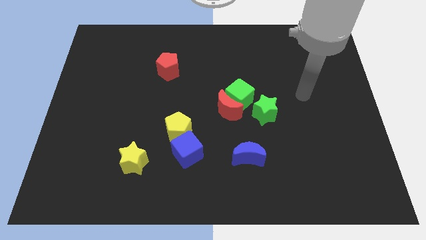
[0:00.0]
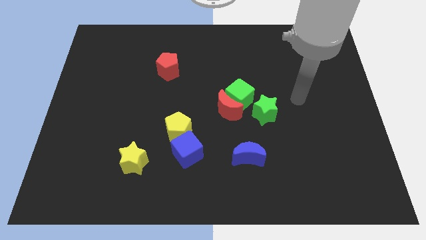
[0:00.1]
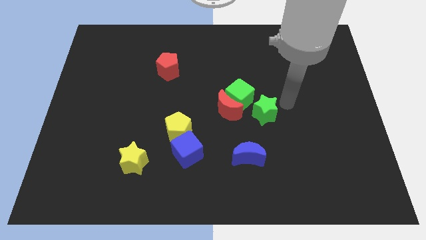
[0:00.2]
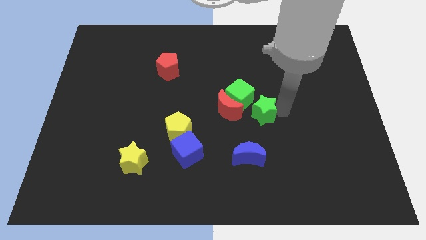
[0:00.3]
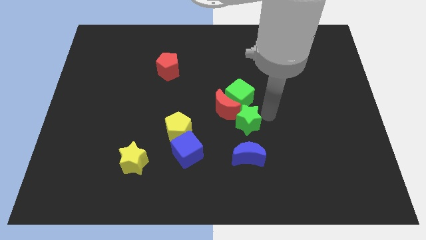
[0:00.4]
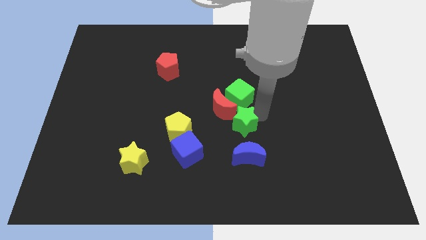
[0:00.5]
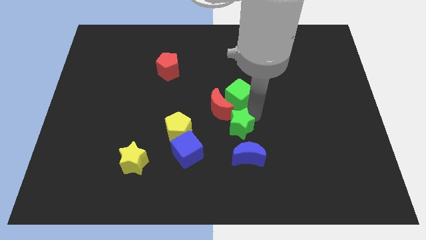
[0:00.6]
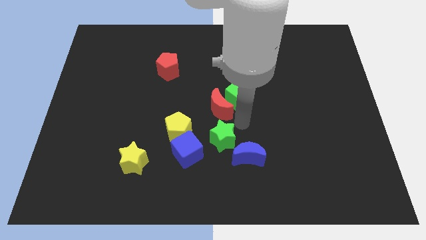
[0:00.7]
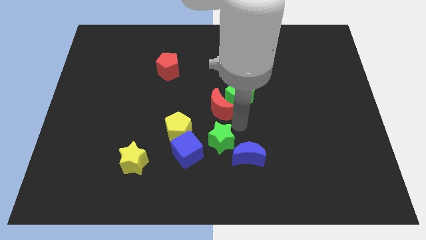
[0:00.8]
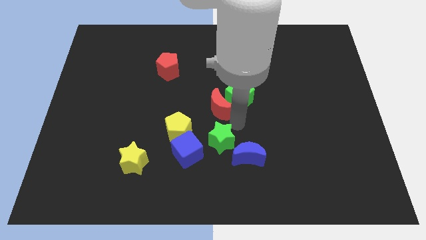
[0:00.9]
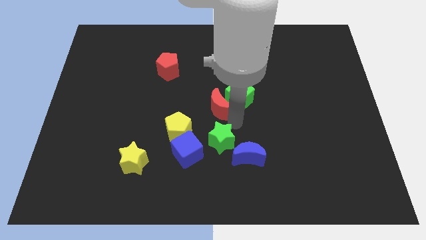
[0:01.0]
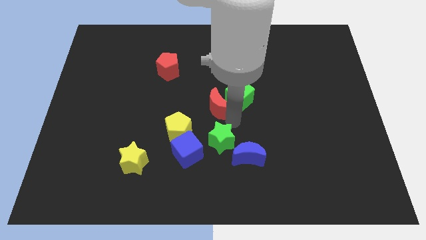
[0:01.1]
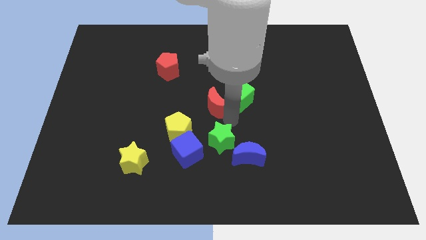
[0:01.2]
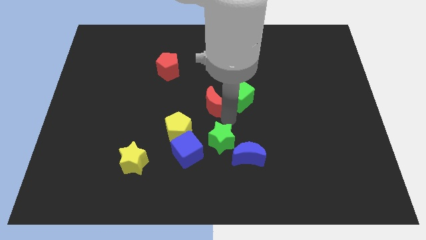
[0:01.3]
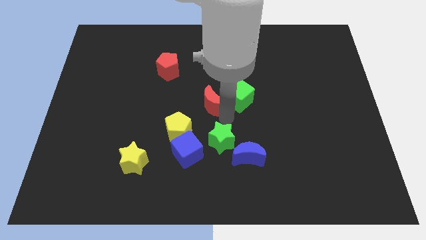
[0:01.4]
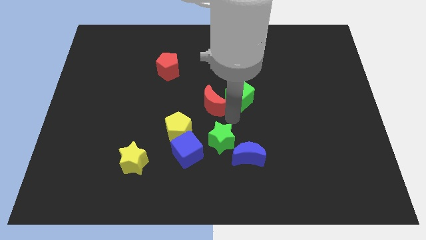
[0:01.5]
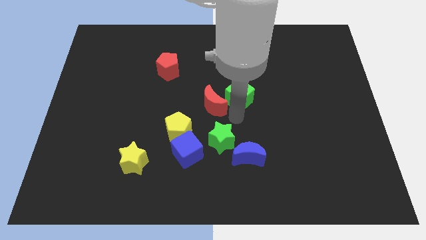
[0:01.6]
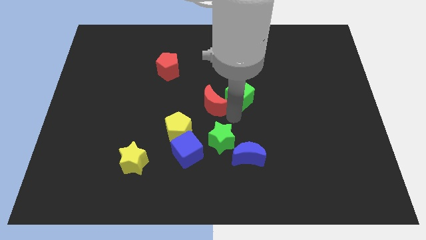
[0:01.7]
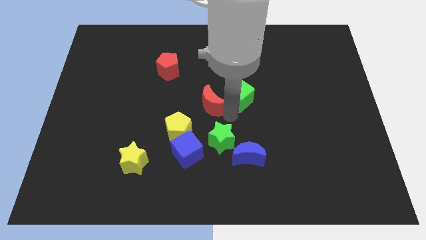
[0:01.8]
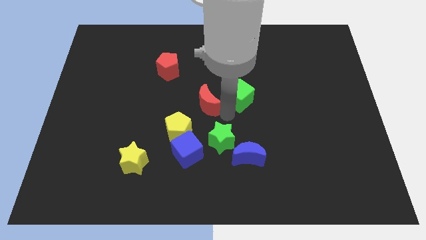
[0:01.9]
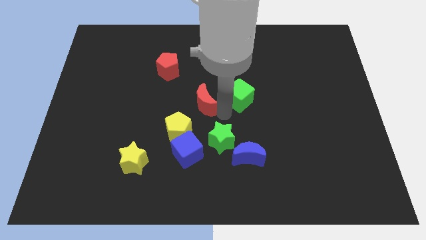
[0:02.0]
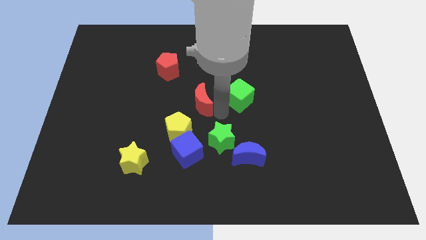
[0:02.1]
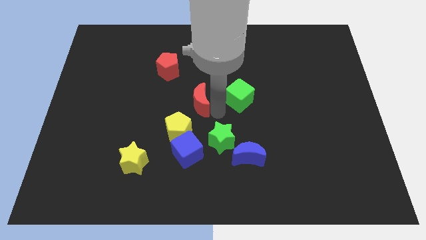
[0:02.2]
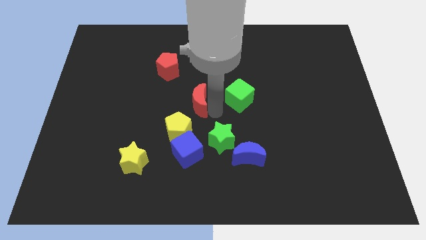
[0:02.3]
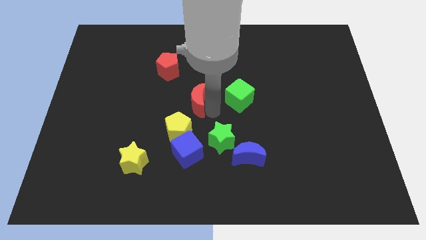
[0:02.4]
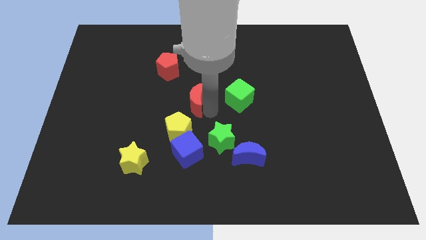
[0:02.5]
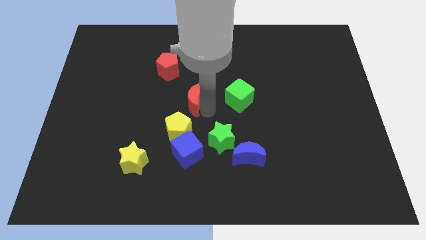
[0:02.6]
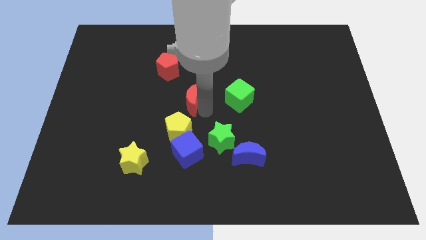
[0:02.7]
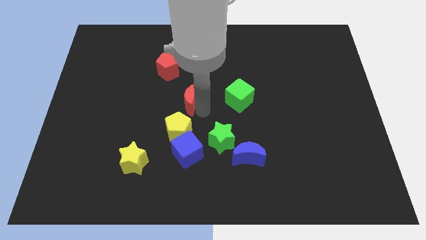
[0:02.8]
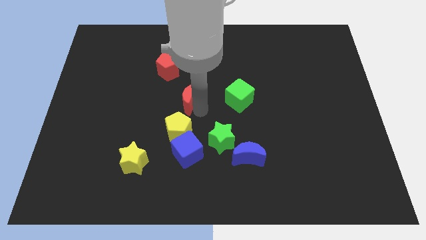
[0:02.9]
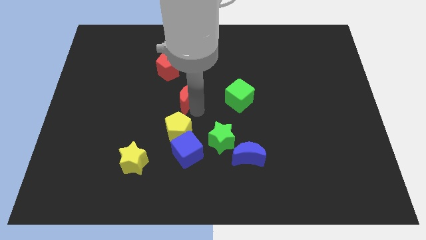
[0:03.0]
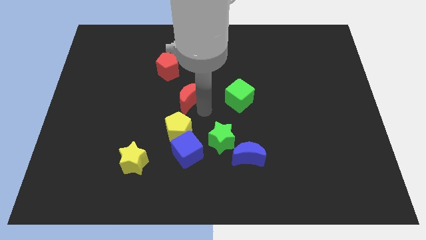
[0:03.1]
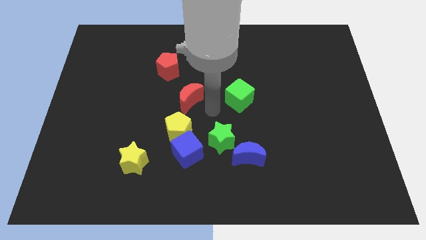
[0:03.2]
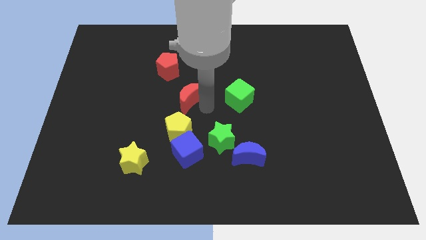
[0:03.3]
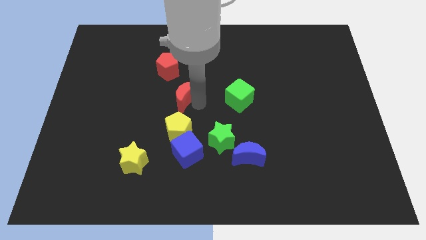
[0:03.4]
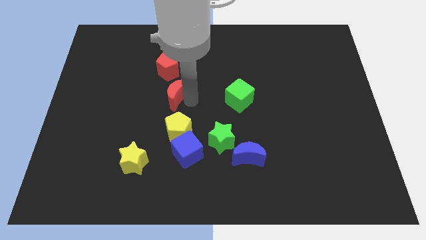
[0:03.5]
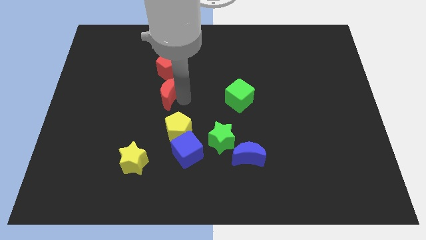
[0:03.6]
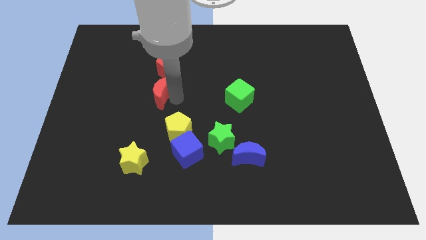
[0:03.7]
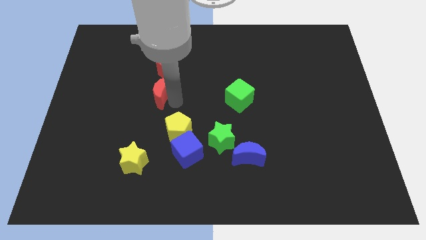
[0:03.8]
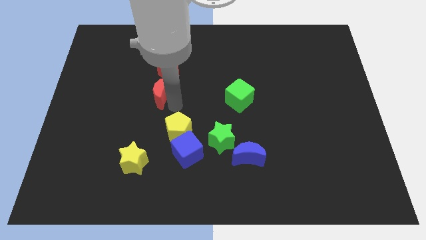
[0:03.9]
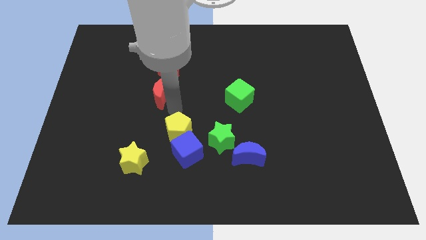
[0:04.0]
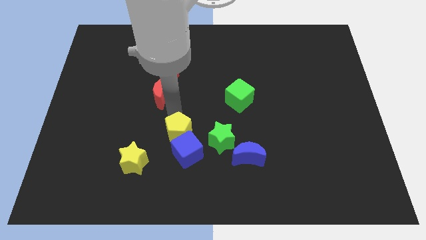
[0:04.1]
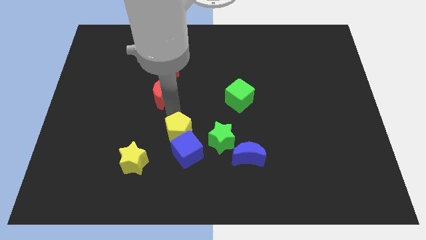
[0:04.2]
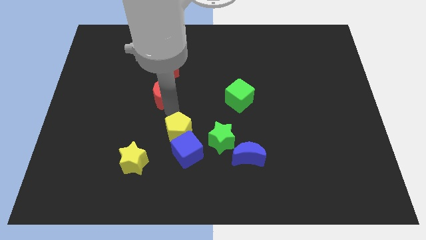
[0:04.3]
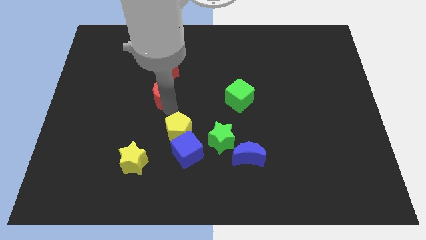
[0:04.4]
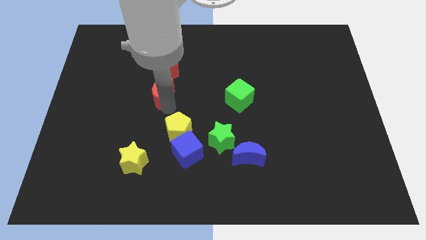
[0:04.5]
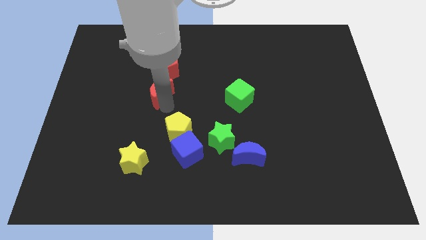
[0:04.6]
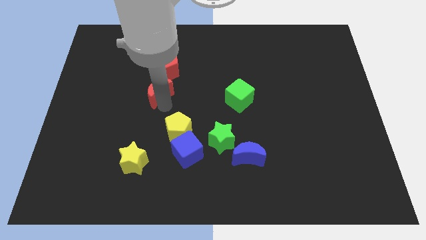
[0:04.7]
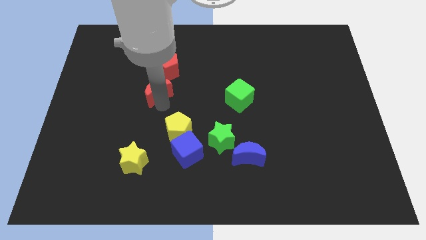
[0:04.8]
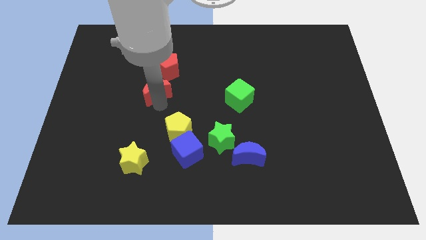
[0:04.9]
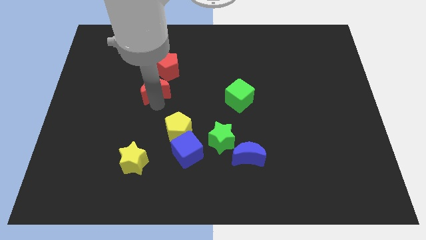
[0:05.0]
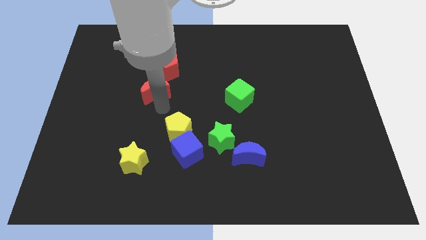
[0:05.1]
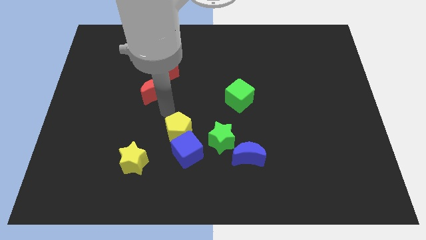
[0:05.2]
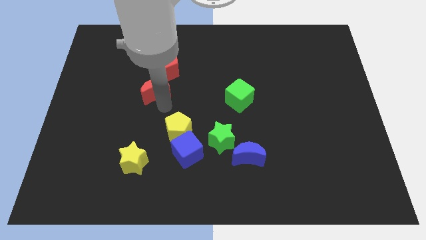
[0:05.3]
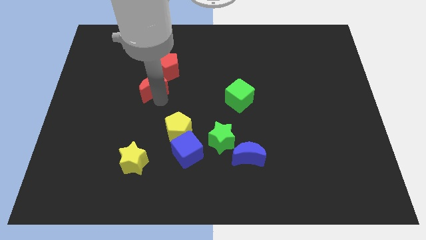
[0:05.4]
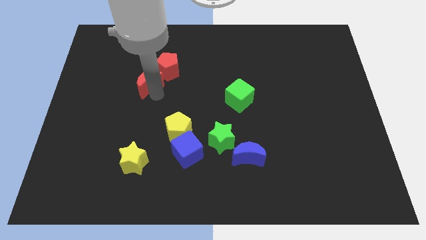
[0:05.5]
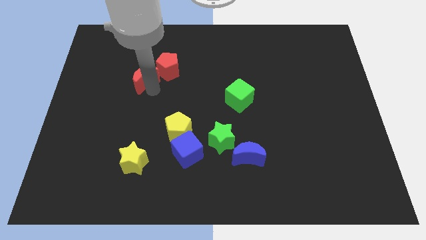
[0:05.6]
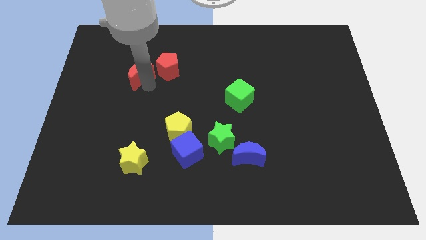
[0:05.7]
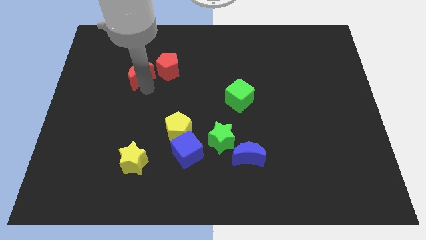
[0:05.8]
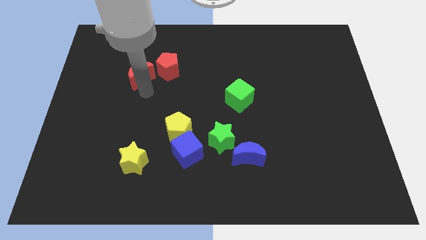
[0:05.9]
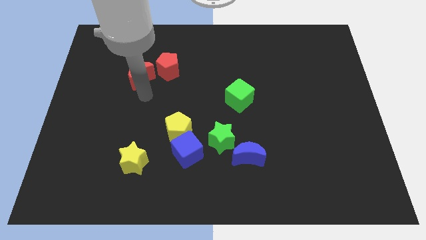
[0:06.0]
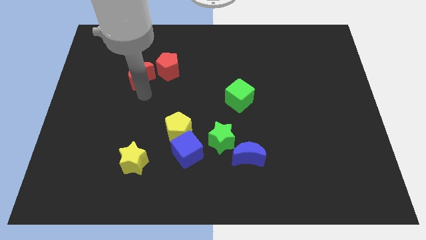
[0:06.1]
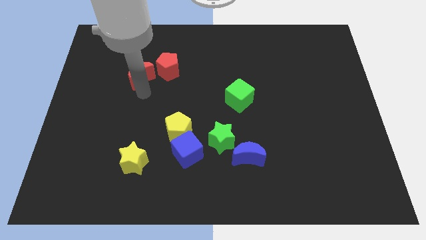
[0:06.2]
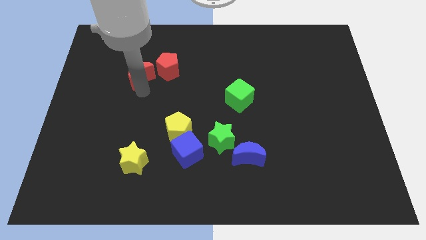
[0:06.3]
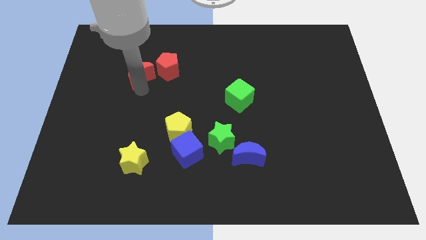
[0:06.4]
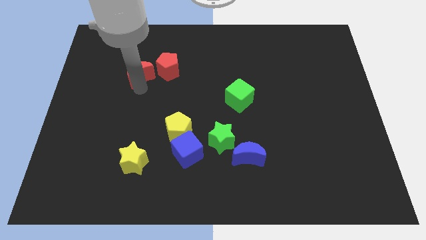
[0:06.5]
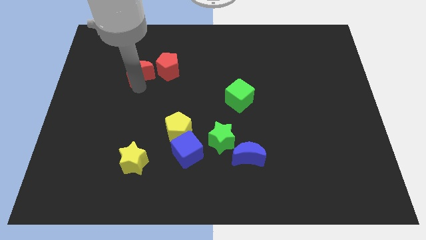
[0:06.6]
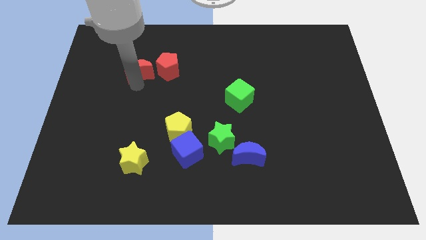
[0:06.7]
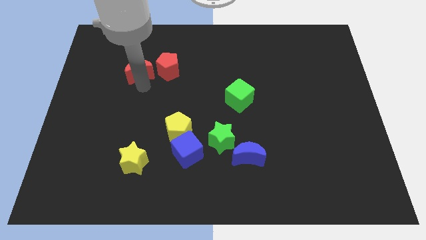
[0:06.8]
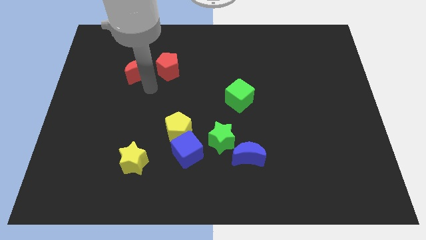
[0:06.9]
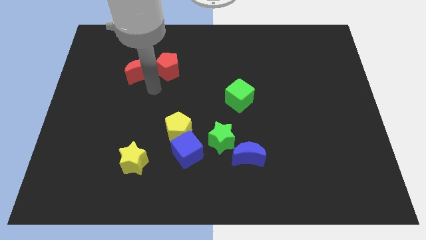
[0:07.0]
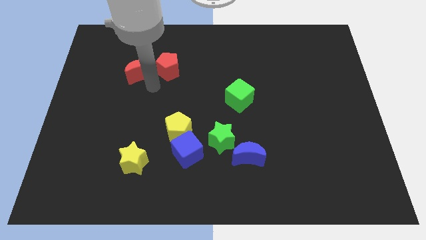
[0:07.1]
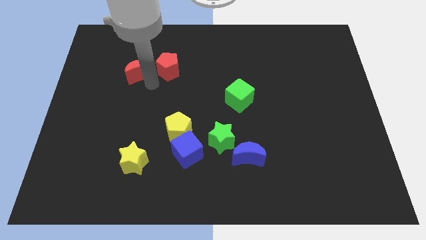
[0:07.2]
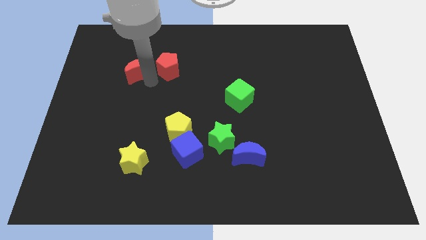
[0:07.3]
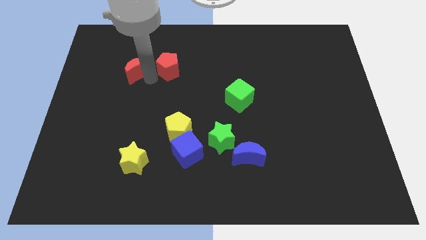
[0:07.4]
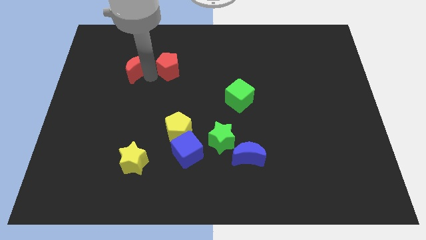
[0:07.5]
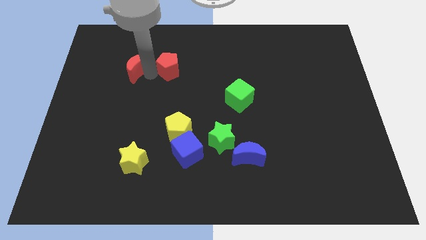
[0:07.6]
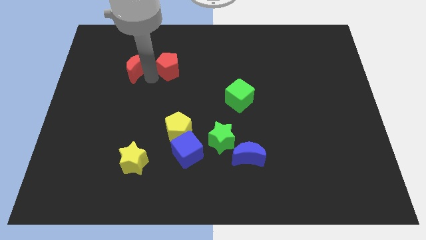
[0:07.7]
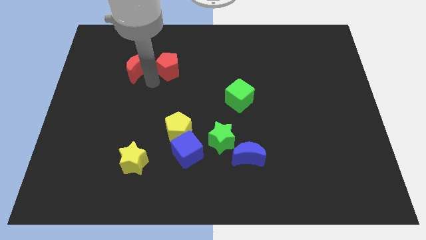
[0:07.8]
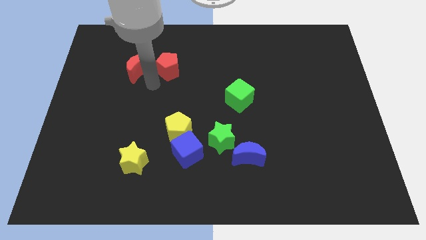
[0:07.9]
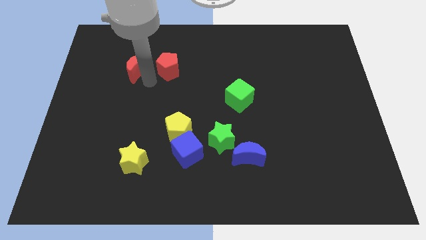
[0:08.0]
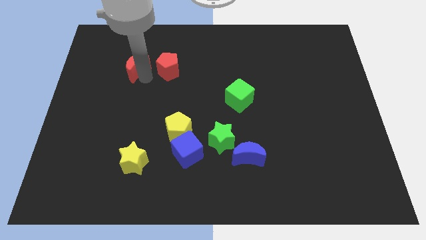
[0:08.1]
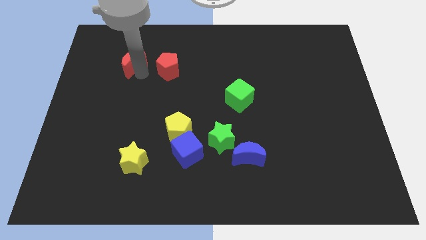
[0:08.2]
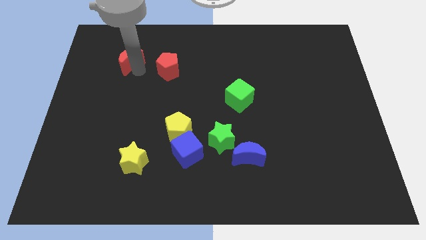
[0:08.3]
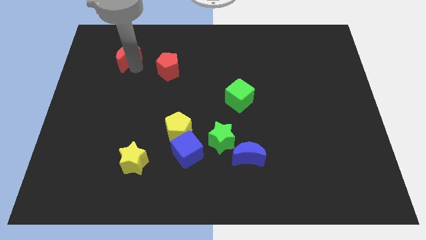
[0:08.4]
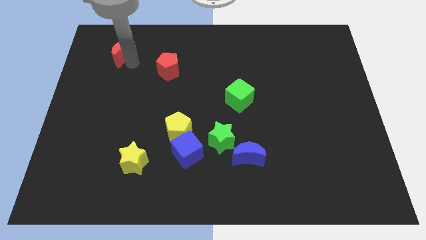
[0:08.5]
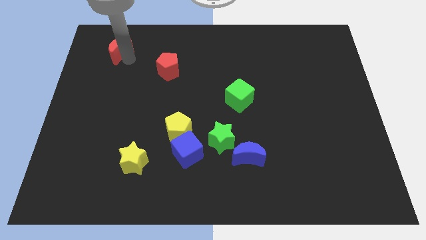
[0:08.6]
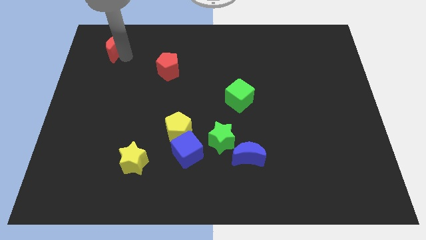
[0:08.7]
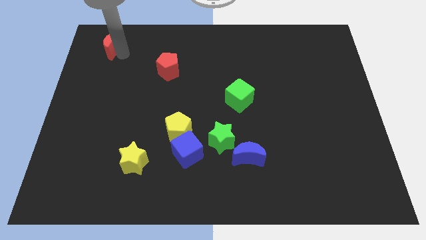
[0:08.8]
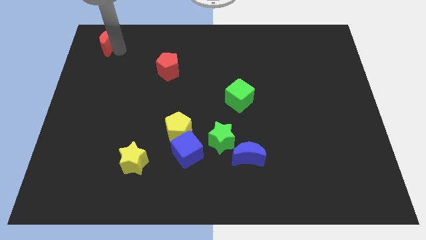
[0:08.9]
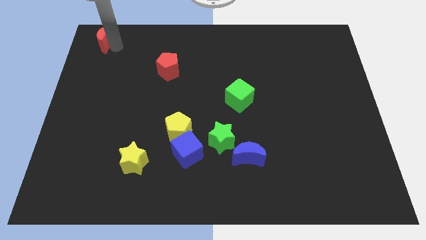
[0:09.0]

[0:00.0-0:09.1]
put the red moon to the top left corner
